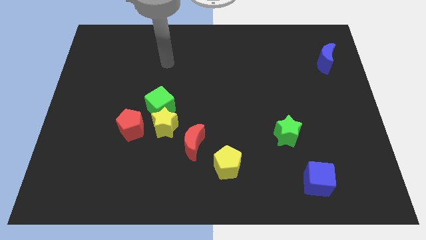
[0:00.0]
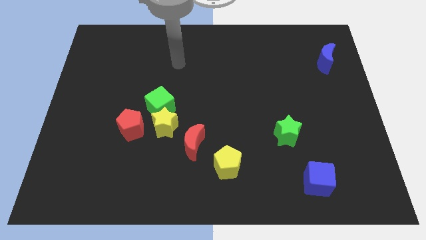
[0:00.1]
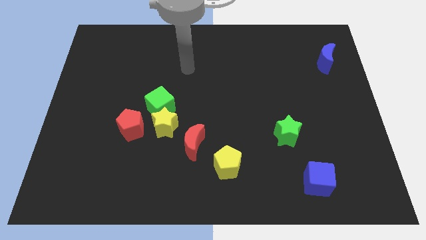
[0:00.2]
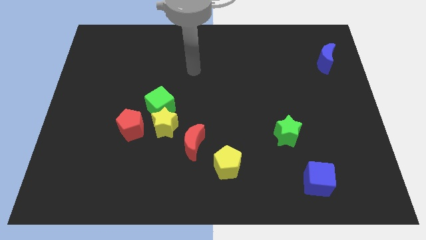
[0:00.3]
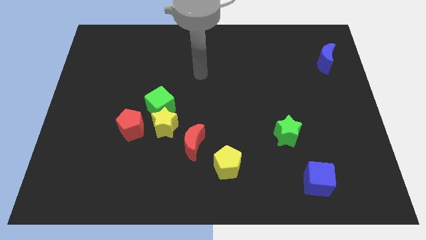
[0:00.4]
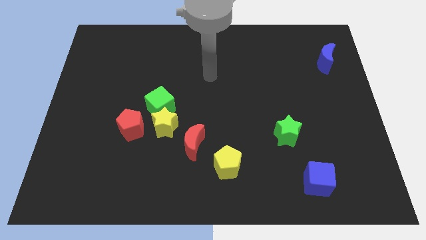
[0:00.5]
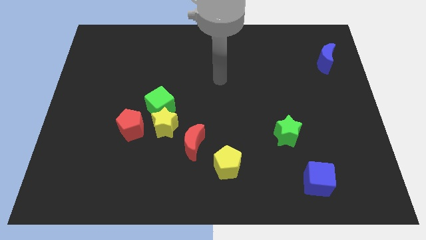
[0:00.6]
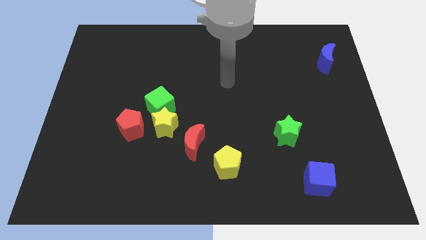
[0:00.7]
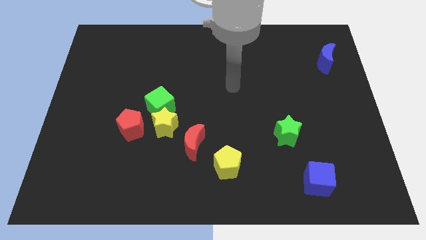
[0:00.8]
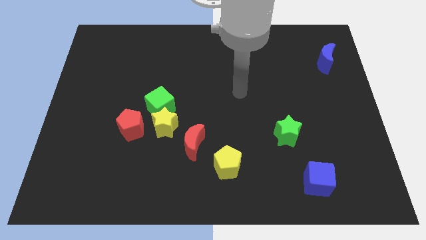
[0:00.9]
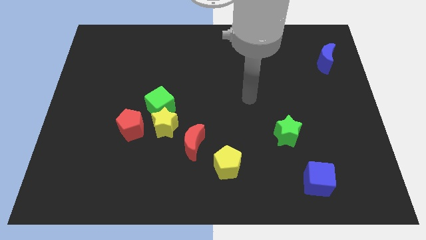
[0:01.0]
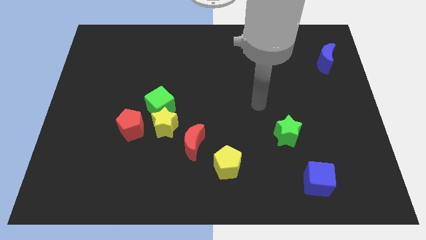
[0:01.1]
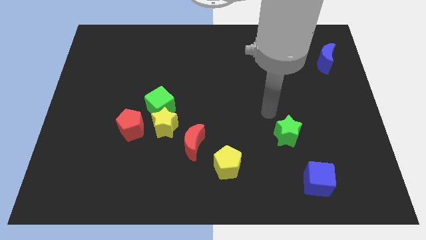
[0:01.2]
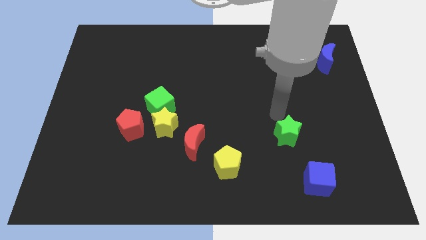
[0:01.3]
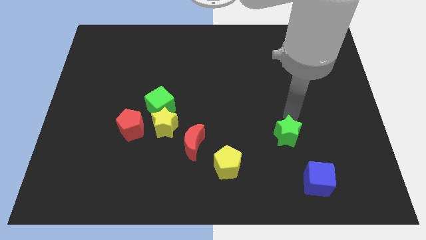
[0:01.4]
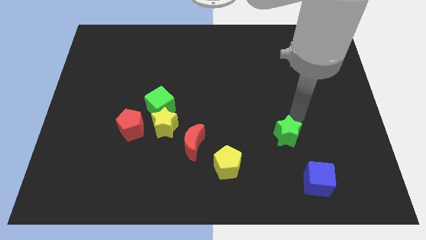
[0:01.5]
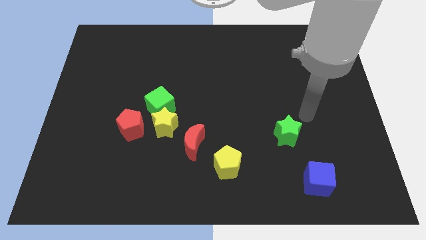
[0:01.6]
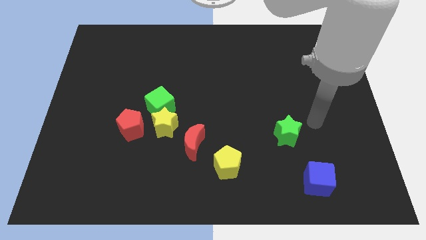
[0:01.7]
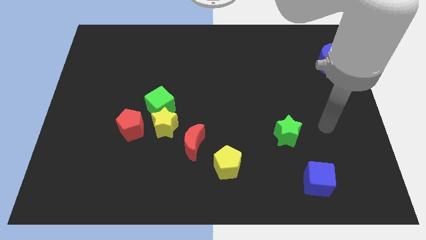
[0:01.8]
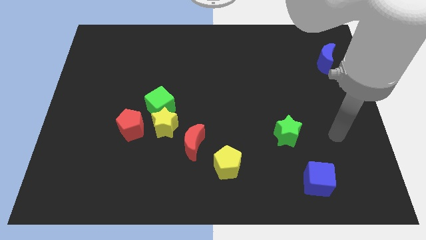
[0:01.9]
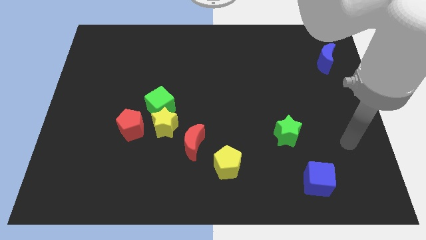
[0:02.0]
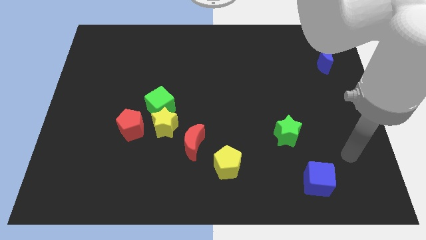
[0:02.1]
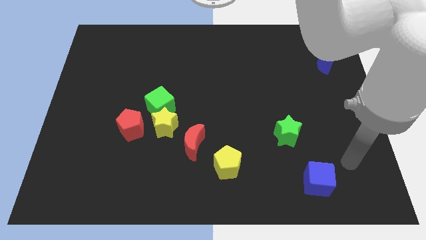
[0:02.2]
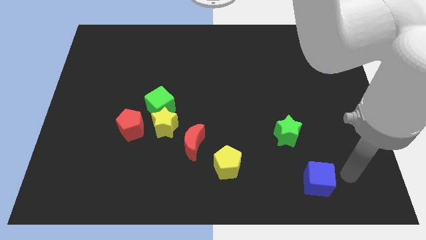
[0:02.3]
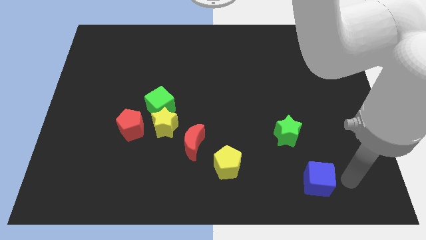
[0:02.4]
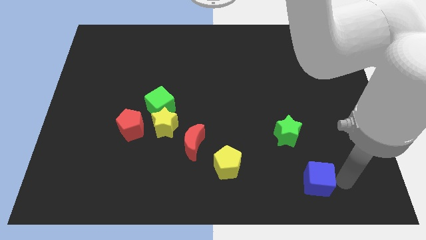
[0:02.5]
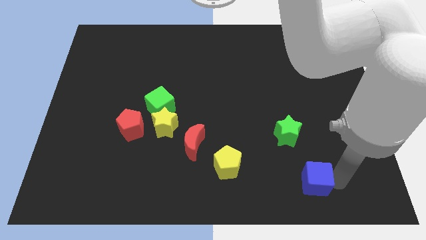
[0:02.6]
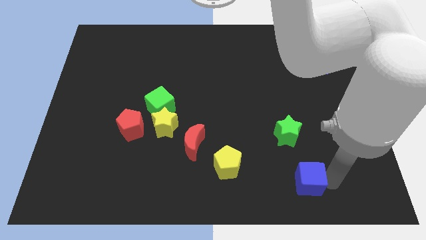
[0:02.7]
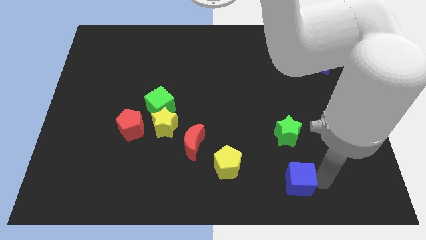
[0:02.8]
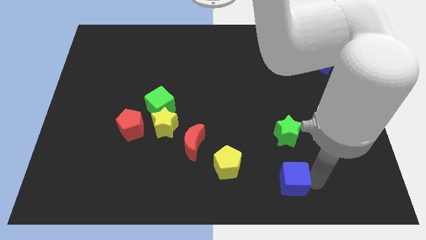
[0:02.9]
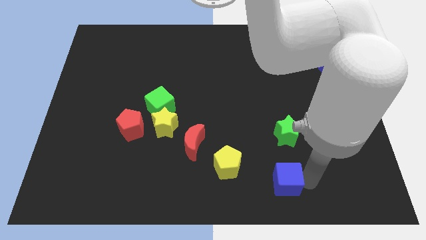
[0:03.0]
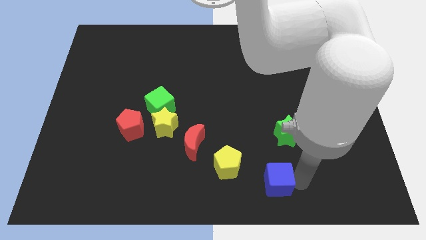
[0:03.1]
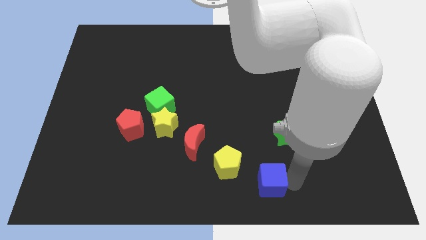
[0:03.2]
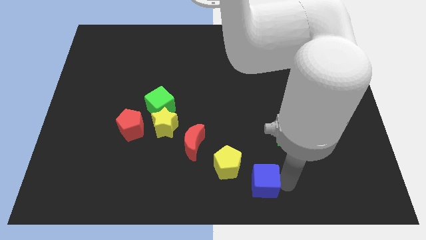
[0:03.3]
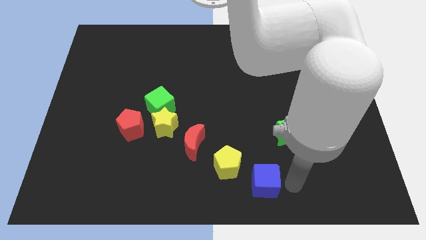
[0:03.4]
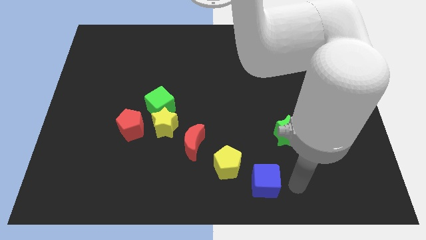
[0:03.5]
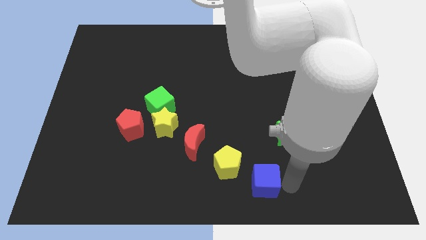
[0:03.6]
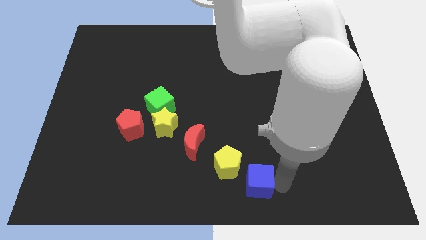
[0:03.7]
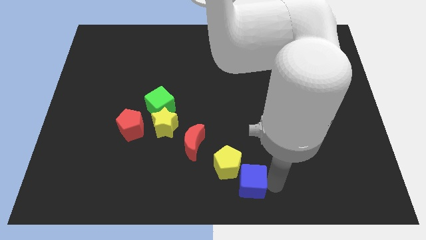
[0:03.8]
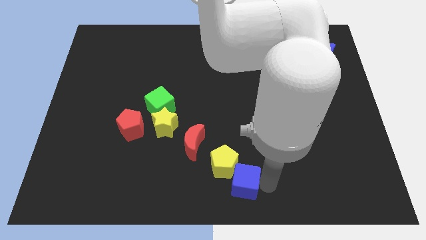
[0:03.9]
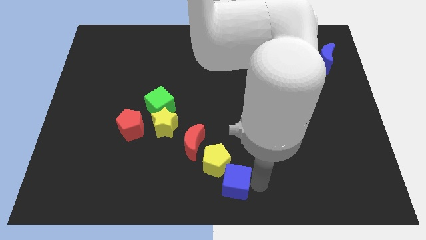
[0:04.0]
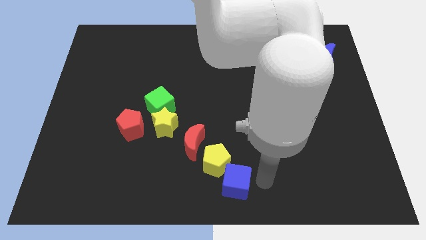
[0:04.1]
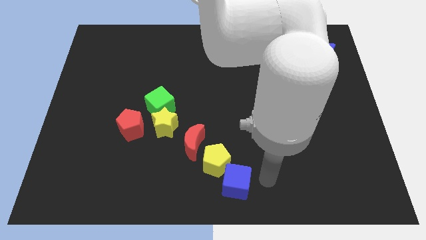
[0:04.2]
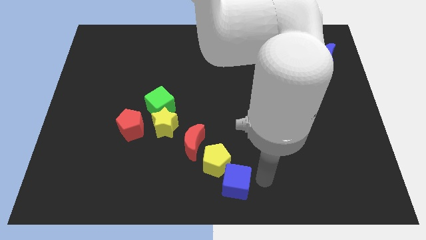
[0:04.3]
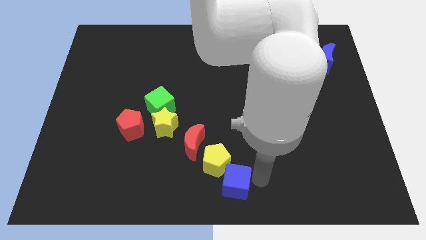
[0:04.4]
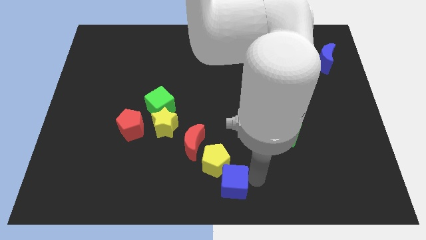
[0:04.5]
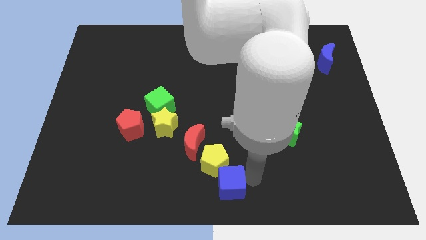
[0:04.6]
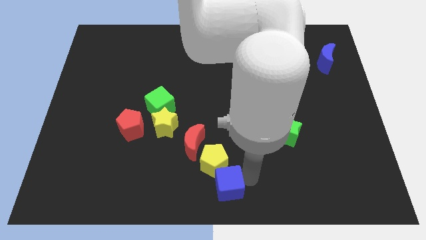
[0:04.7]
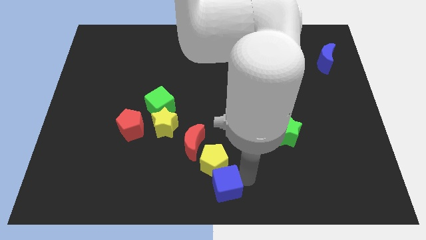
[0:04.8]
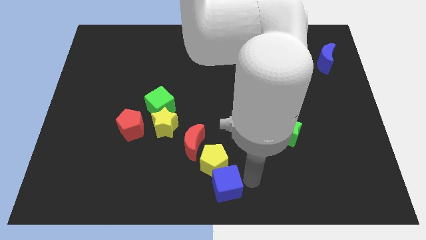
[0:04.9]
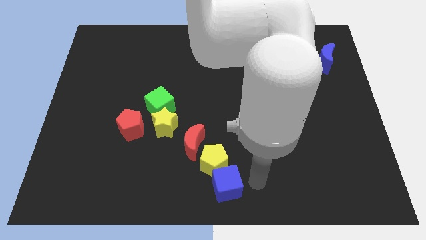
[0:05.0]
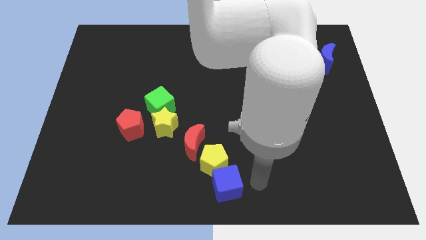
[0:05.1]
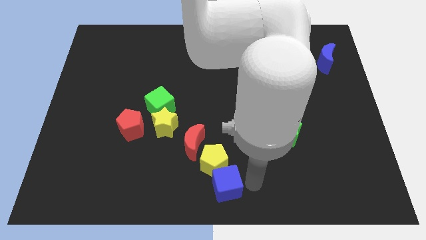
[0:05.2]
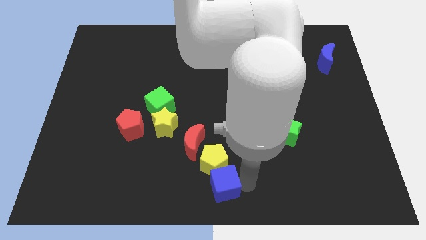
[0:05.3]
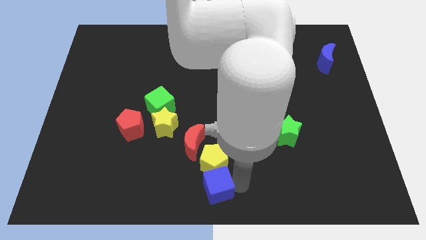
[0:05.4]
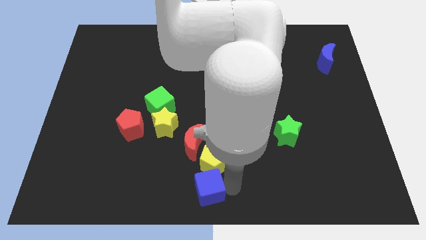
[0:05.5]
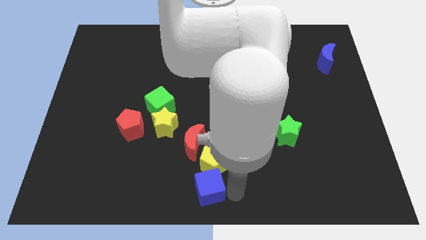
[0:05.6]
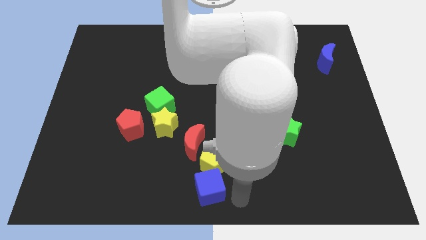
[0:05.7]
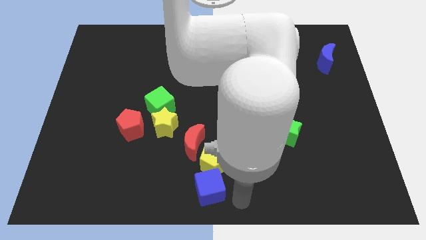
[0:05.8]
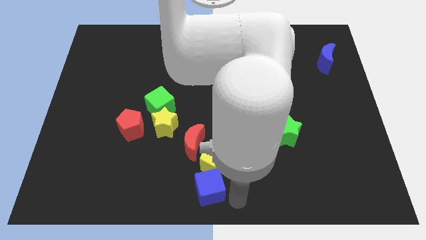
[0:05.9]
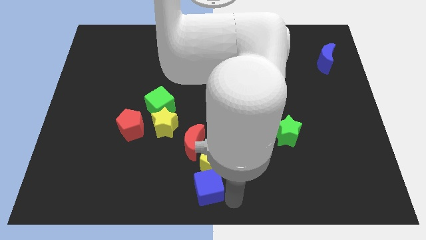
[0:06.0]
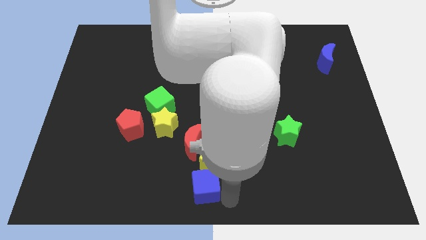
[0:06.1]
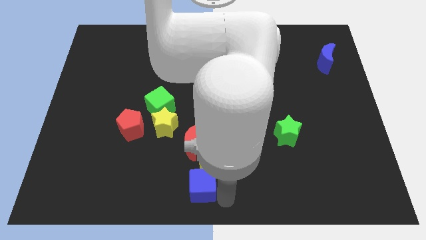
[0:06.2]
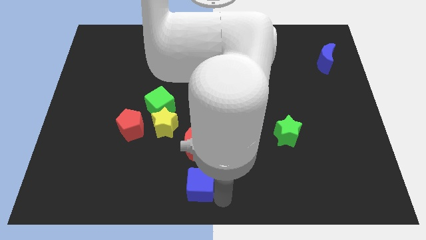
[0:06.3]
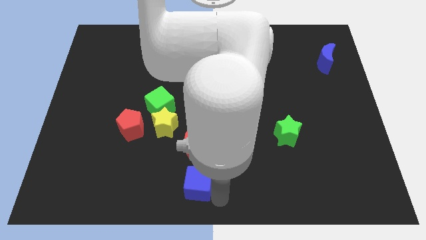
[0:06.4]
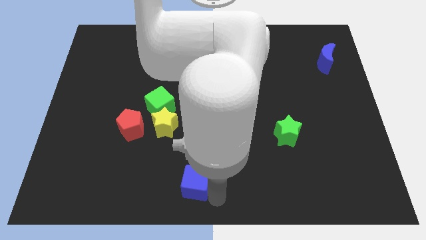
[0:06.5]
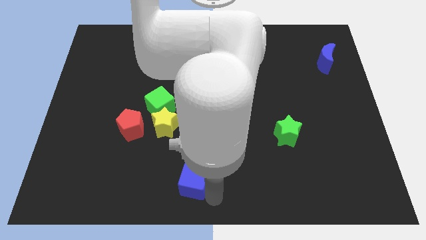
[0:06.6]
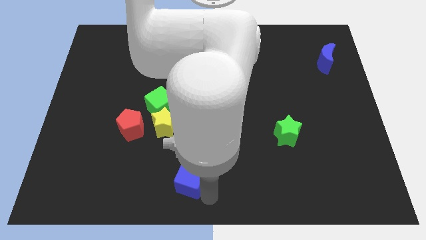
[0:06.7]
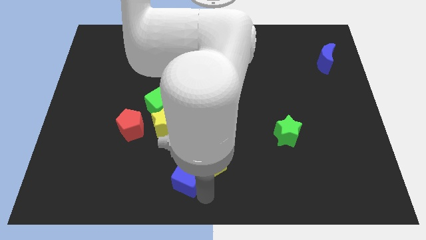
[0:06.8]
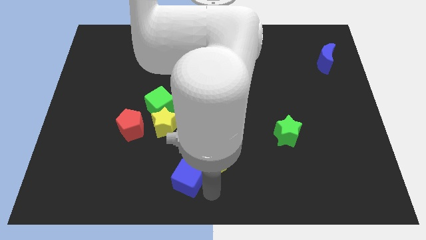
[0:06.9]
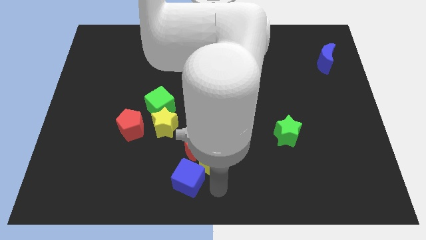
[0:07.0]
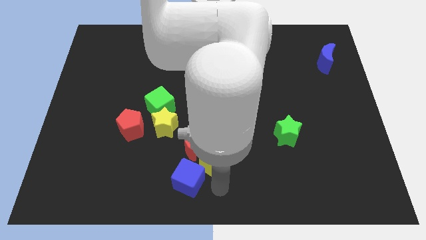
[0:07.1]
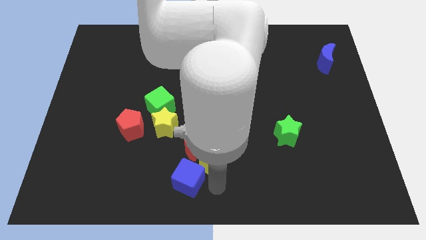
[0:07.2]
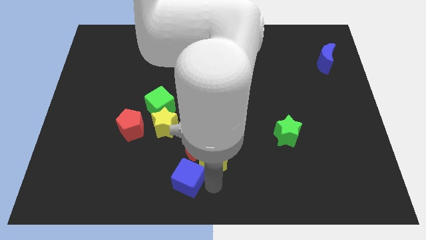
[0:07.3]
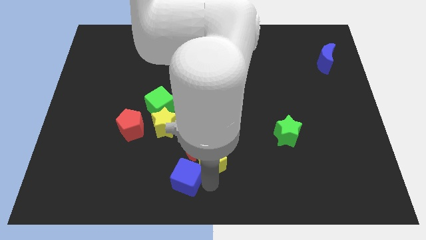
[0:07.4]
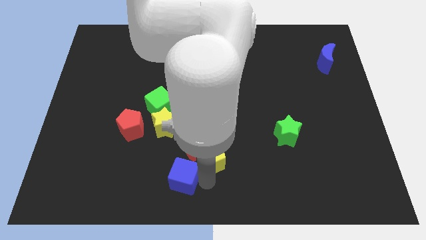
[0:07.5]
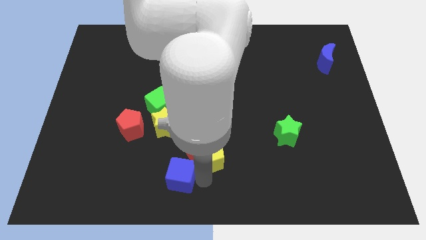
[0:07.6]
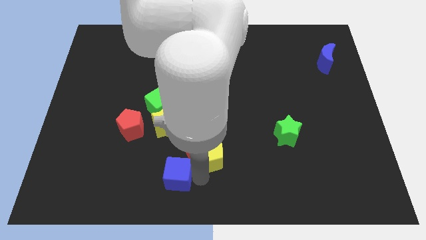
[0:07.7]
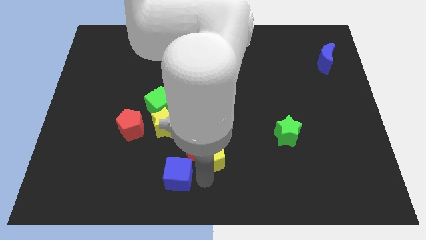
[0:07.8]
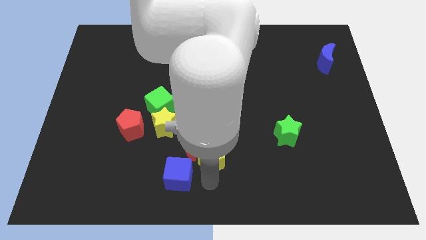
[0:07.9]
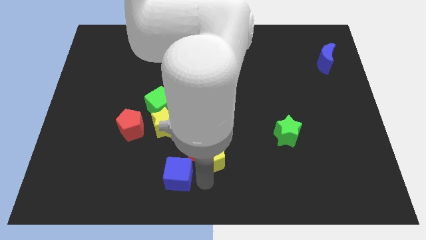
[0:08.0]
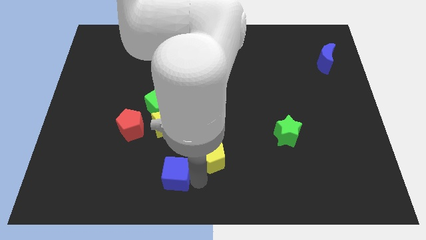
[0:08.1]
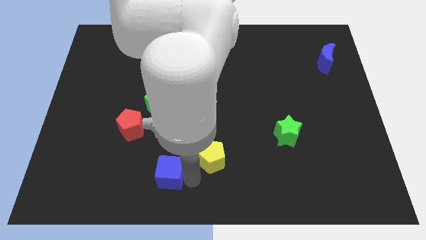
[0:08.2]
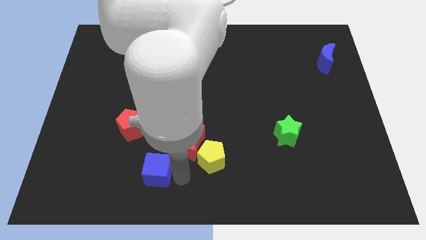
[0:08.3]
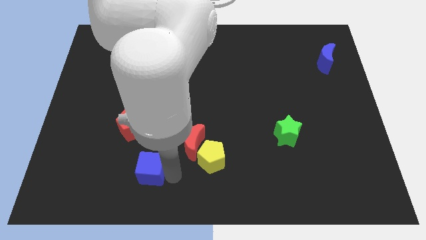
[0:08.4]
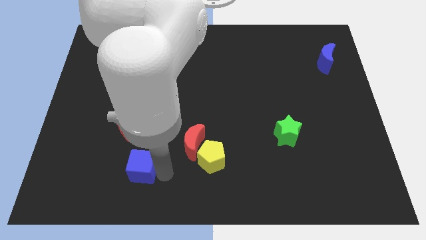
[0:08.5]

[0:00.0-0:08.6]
slide the blue cube below the red pentagon
